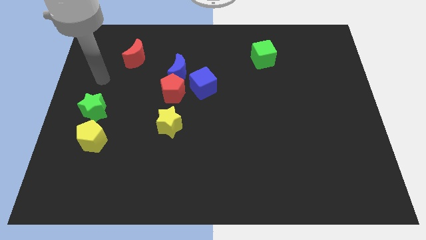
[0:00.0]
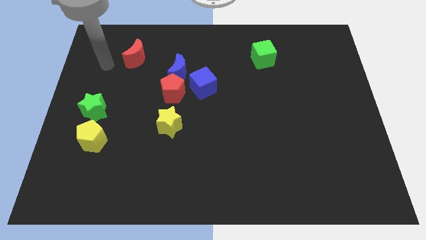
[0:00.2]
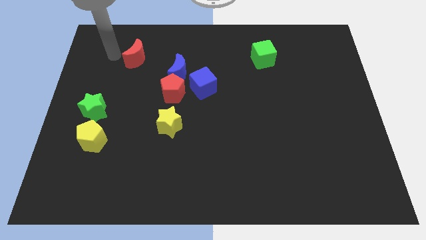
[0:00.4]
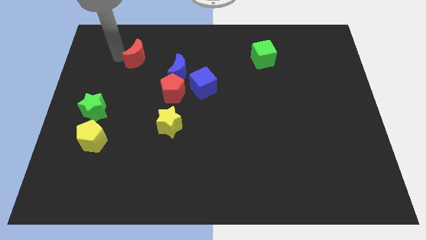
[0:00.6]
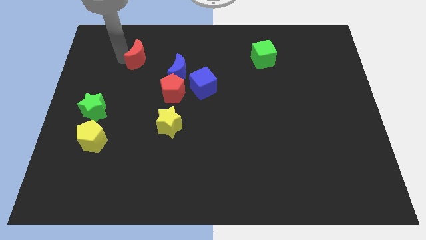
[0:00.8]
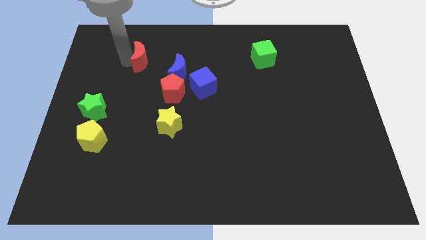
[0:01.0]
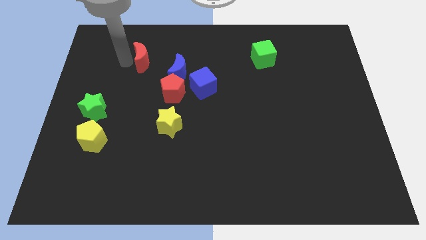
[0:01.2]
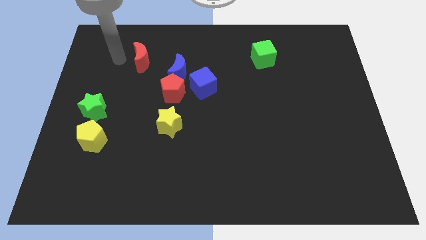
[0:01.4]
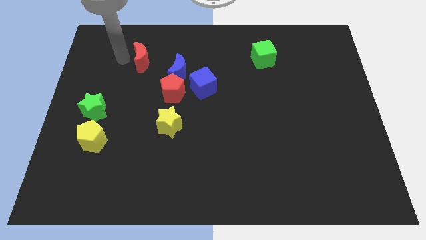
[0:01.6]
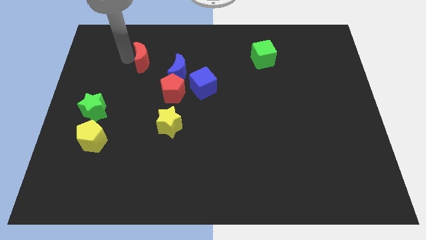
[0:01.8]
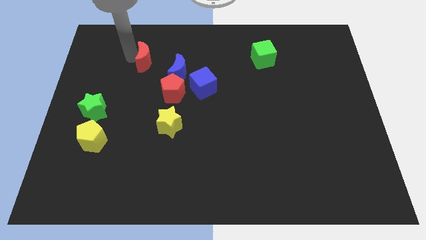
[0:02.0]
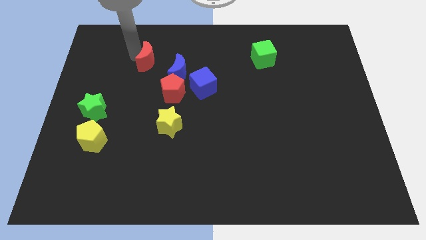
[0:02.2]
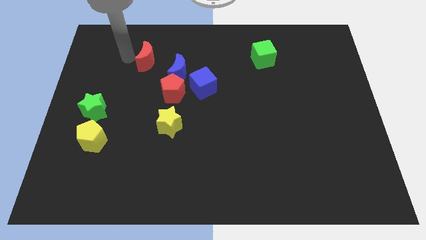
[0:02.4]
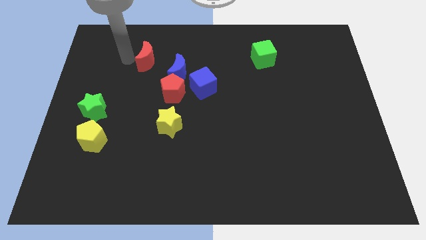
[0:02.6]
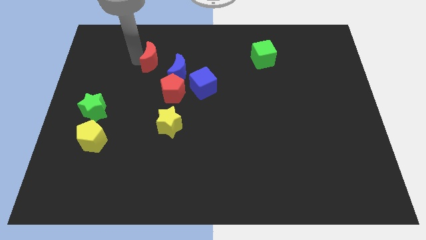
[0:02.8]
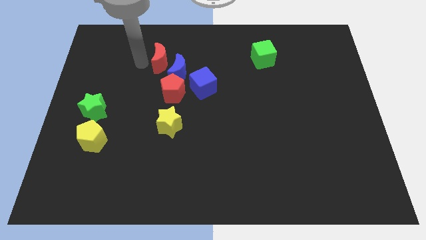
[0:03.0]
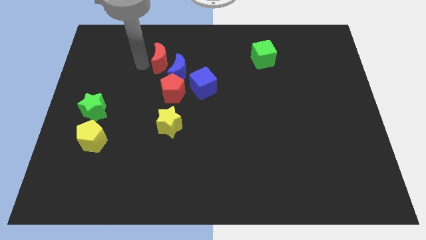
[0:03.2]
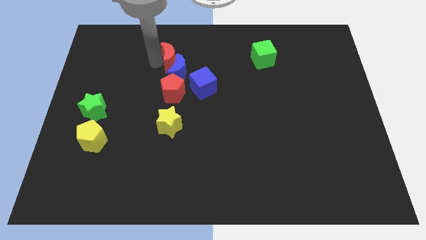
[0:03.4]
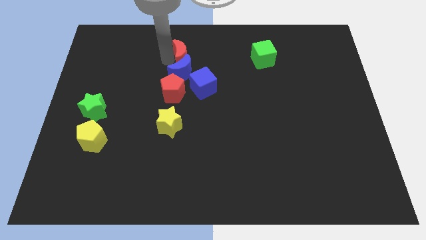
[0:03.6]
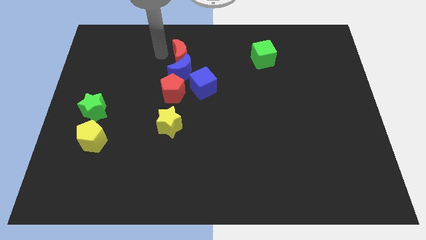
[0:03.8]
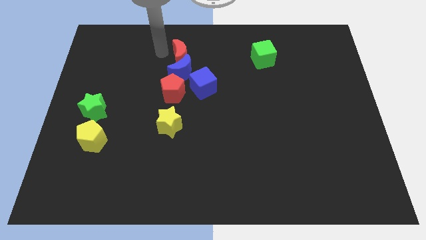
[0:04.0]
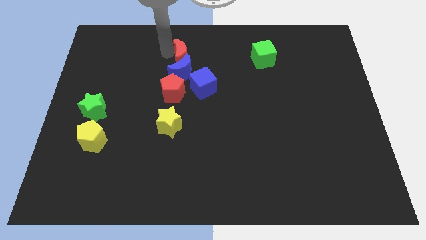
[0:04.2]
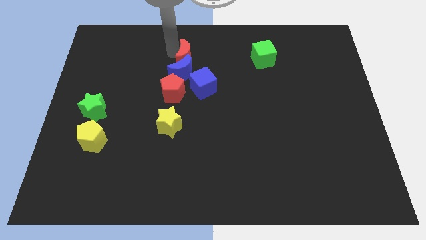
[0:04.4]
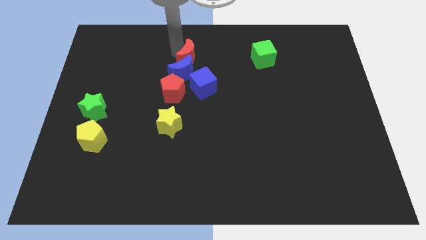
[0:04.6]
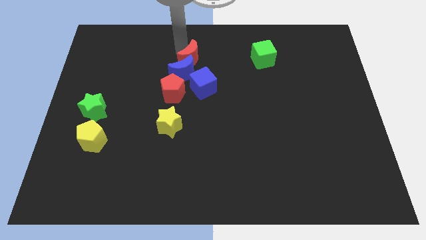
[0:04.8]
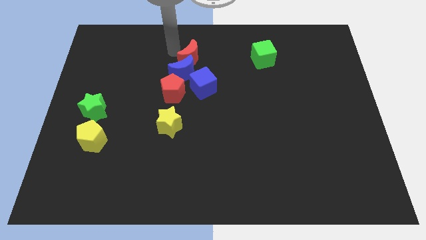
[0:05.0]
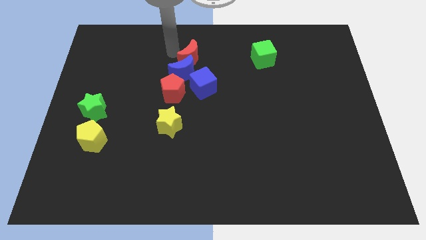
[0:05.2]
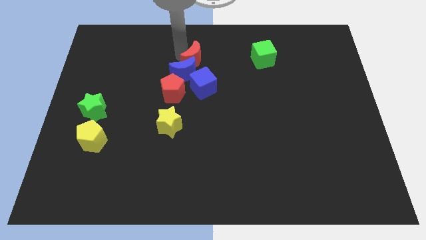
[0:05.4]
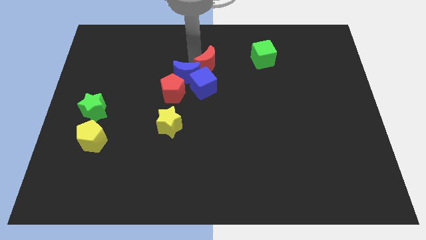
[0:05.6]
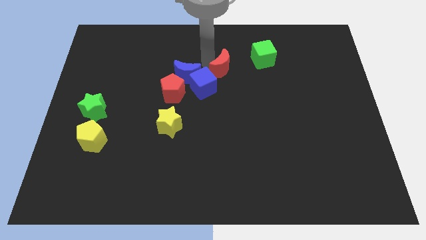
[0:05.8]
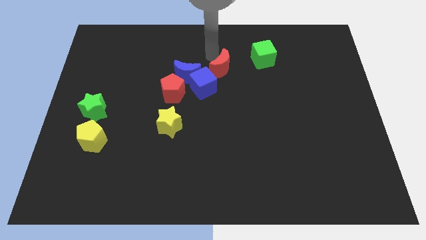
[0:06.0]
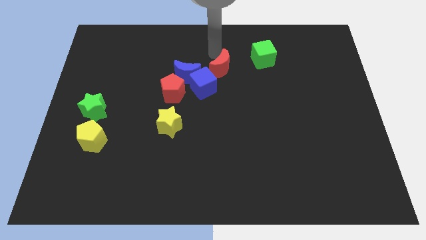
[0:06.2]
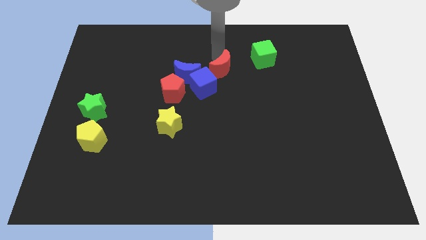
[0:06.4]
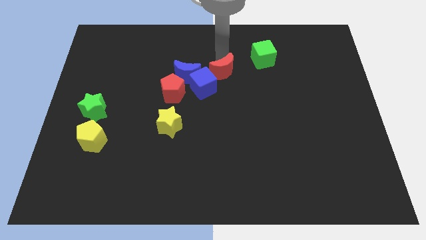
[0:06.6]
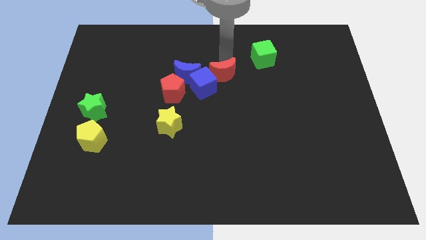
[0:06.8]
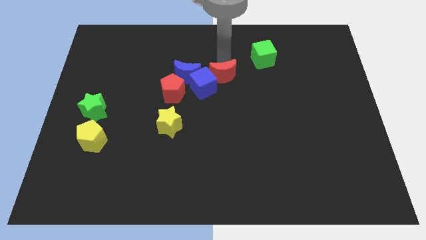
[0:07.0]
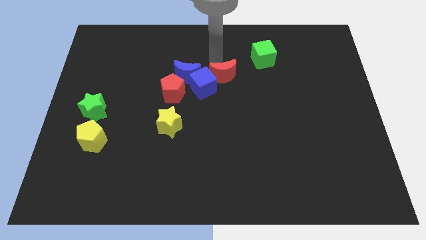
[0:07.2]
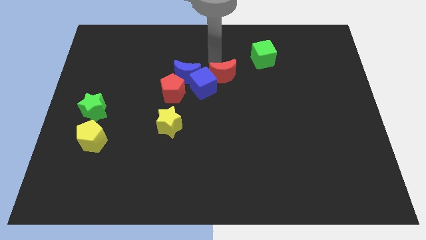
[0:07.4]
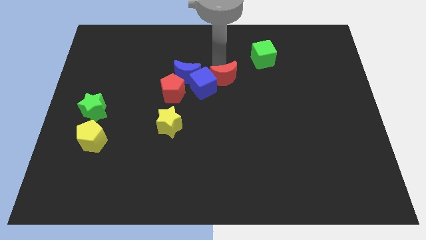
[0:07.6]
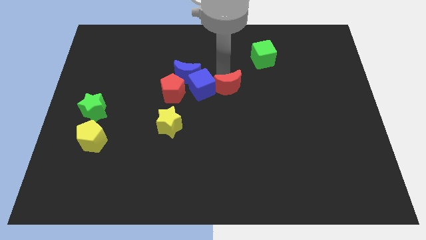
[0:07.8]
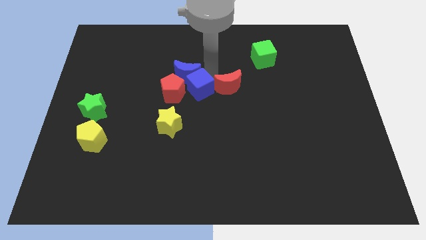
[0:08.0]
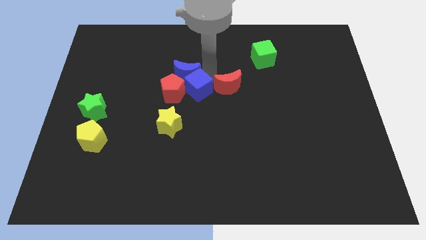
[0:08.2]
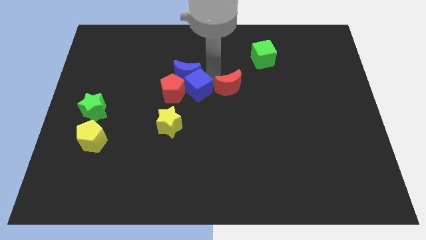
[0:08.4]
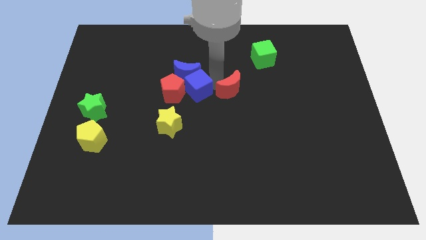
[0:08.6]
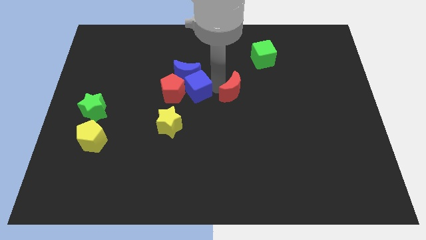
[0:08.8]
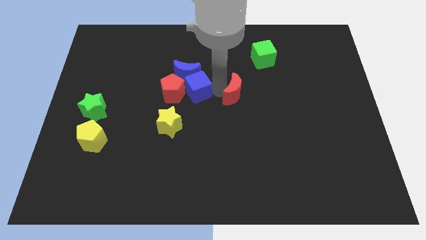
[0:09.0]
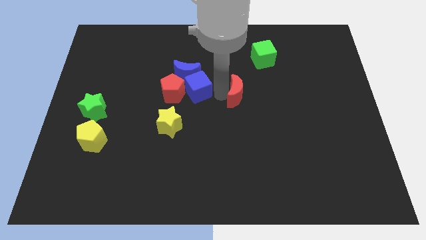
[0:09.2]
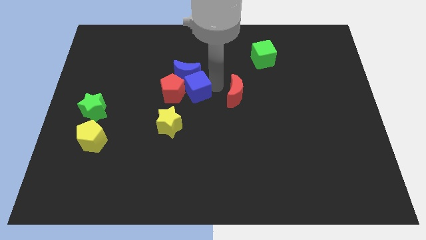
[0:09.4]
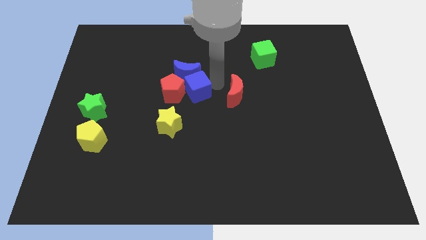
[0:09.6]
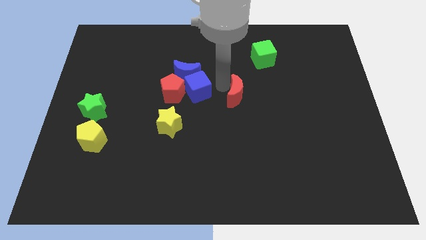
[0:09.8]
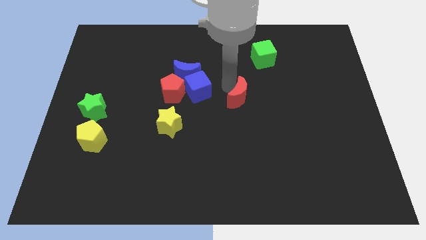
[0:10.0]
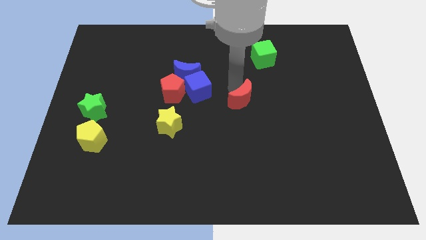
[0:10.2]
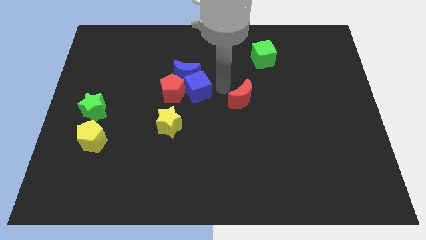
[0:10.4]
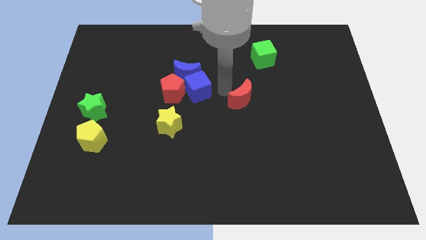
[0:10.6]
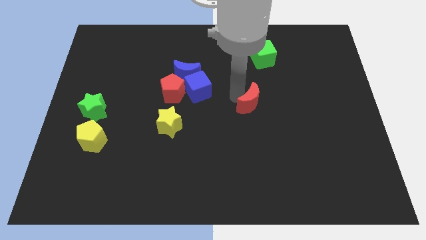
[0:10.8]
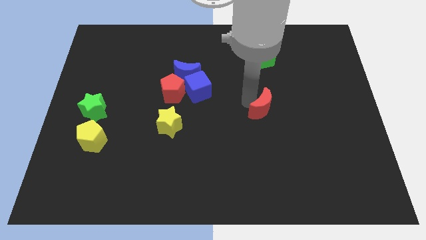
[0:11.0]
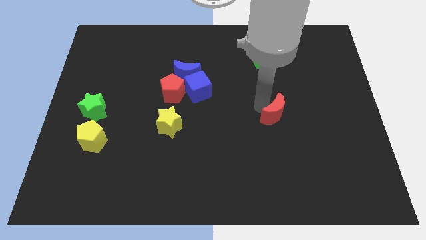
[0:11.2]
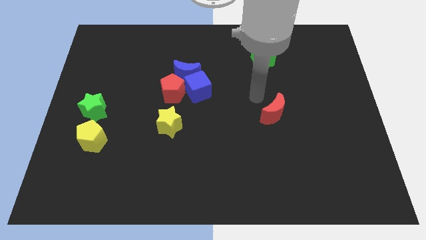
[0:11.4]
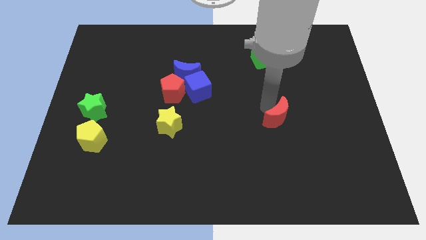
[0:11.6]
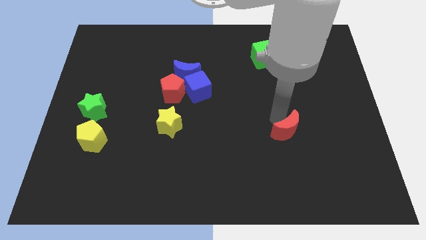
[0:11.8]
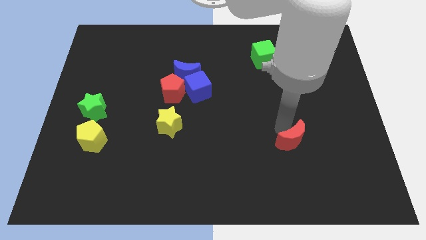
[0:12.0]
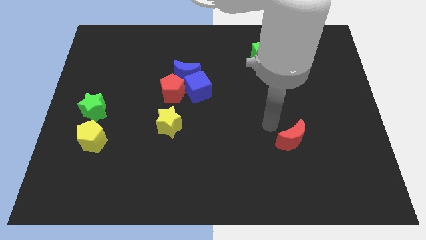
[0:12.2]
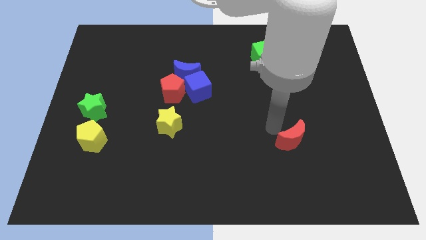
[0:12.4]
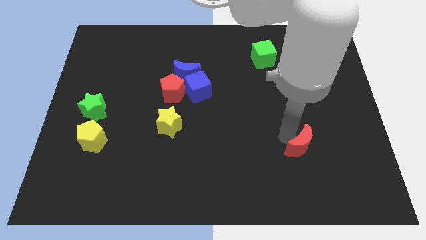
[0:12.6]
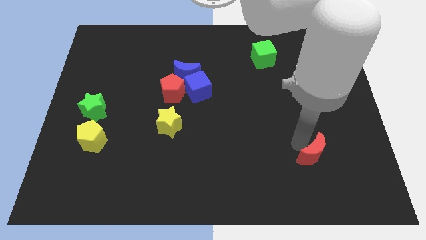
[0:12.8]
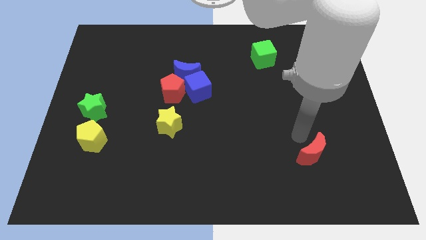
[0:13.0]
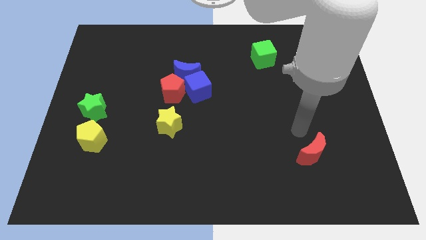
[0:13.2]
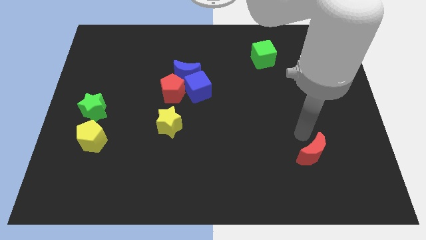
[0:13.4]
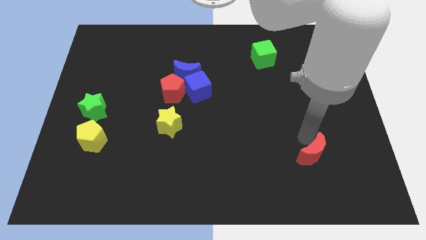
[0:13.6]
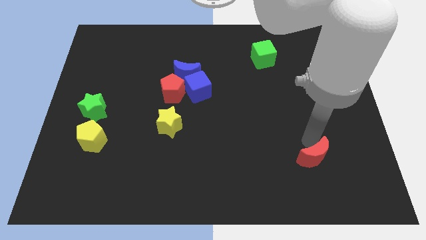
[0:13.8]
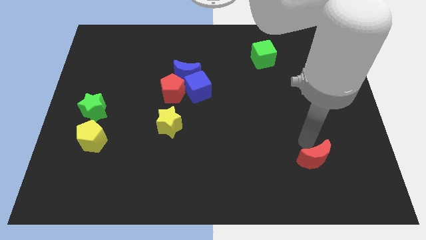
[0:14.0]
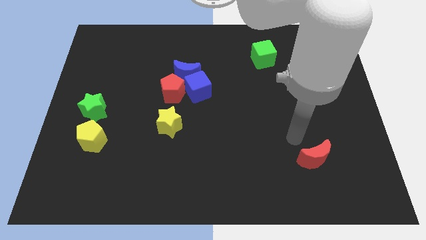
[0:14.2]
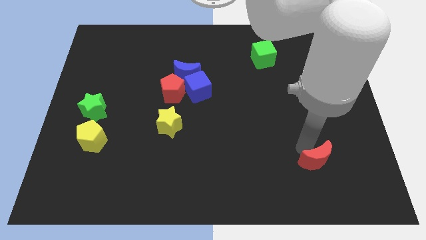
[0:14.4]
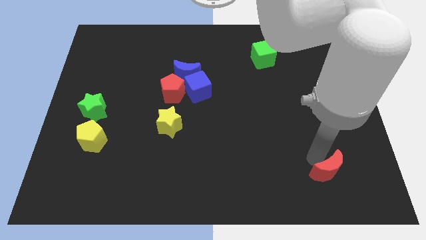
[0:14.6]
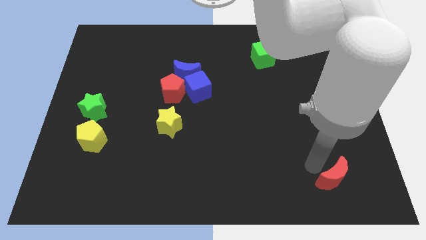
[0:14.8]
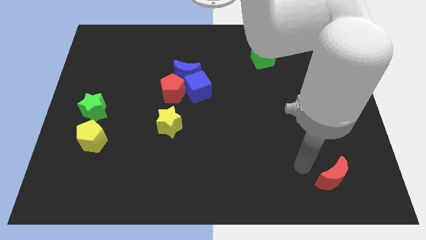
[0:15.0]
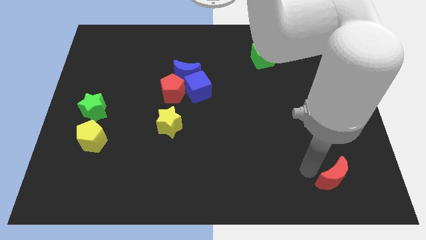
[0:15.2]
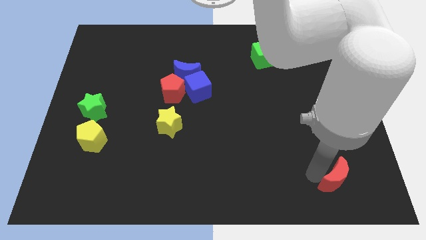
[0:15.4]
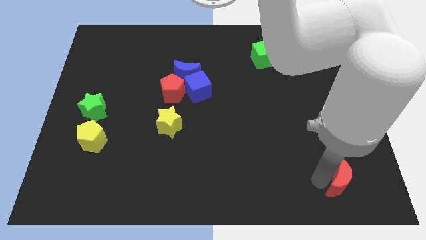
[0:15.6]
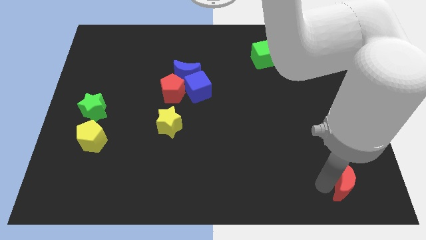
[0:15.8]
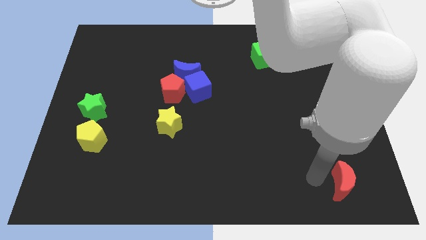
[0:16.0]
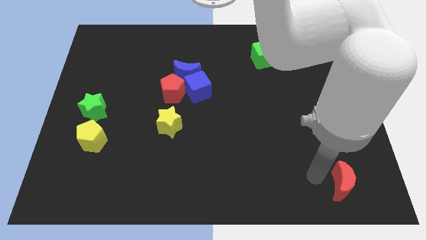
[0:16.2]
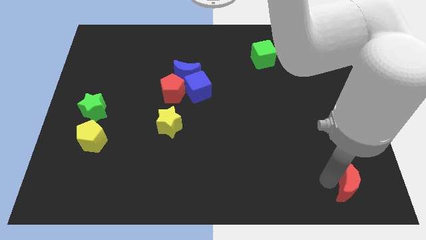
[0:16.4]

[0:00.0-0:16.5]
move the red moon to the bottom right corner
